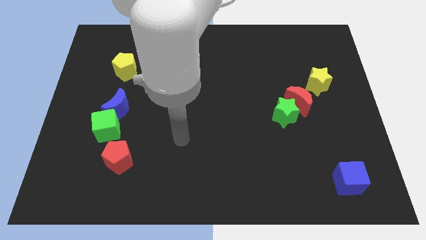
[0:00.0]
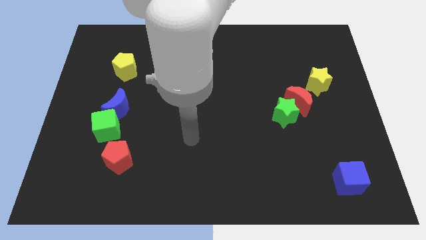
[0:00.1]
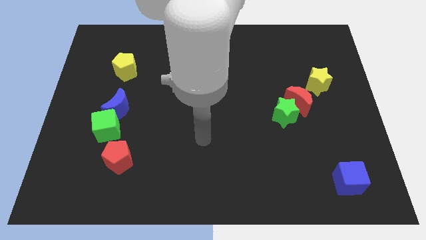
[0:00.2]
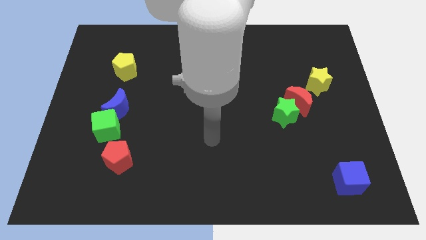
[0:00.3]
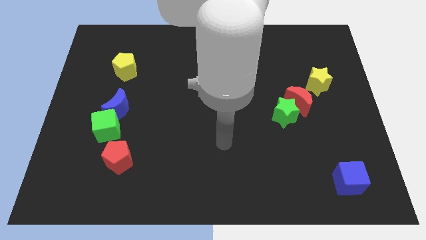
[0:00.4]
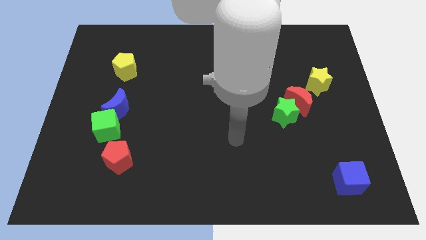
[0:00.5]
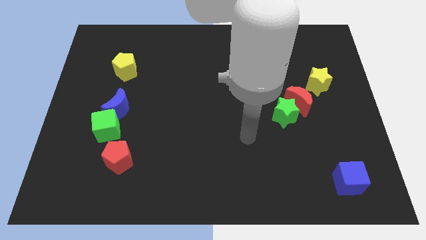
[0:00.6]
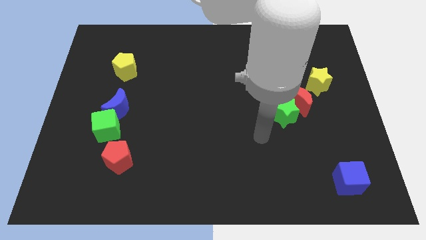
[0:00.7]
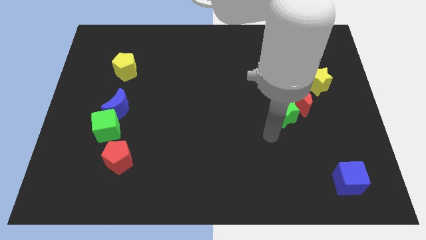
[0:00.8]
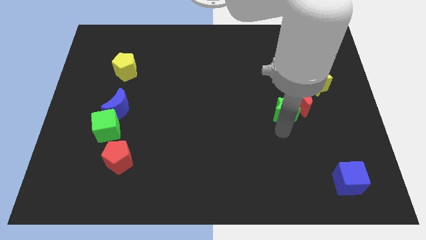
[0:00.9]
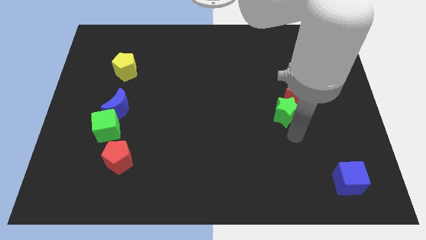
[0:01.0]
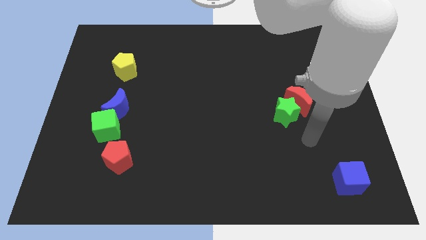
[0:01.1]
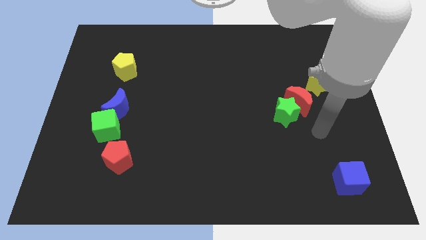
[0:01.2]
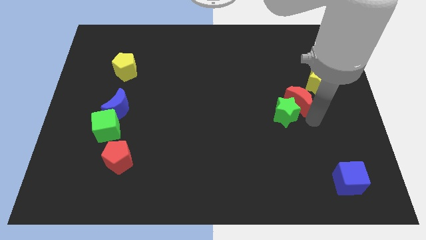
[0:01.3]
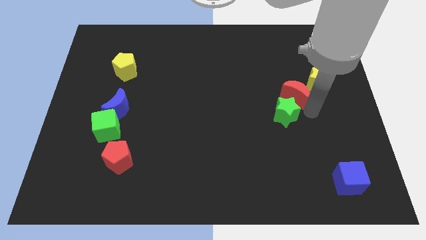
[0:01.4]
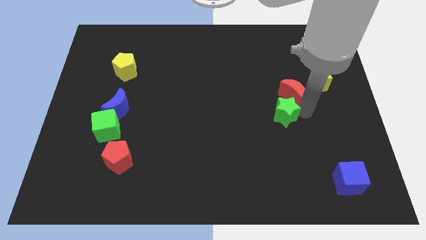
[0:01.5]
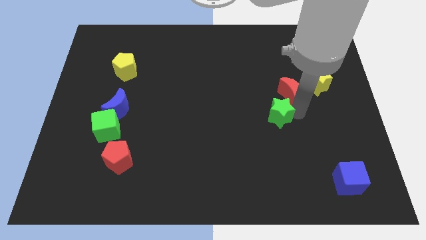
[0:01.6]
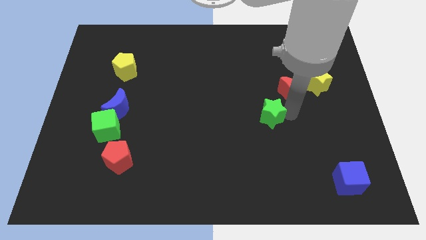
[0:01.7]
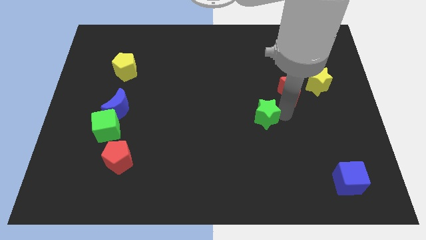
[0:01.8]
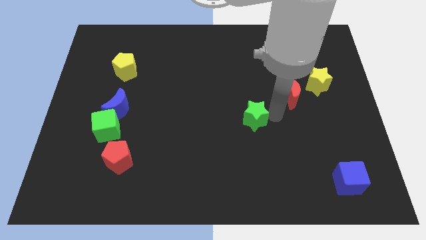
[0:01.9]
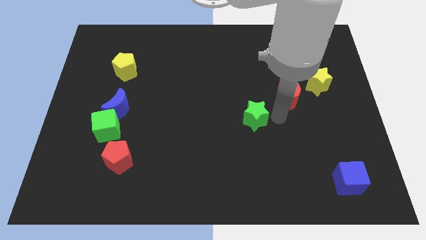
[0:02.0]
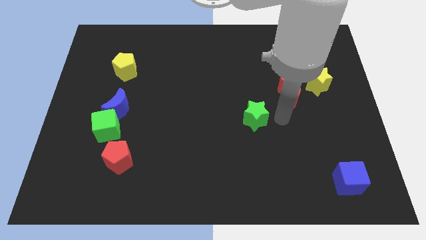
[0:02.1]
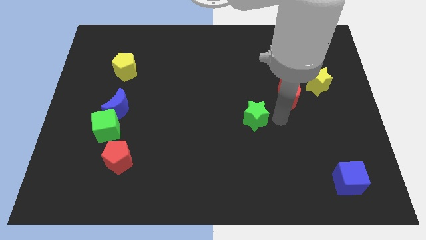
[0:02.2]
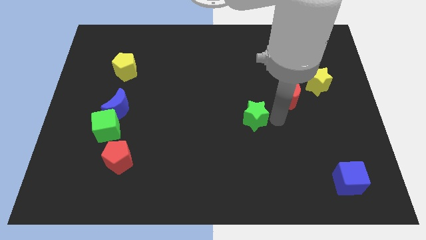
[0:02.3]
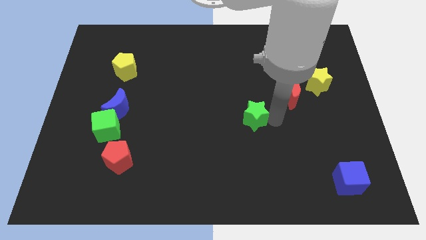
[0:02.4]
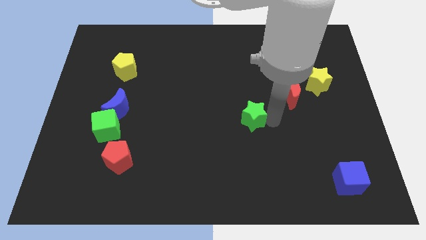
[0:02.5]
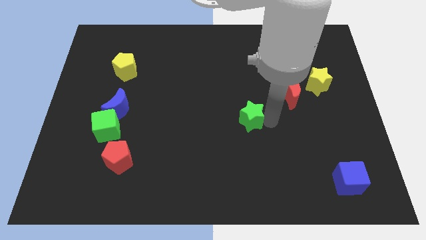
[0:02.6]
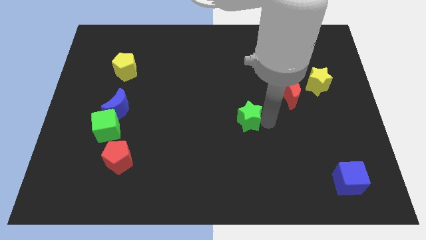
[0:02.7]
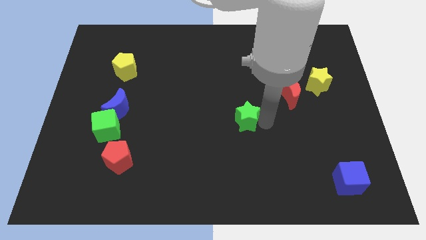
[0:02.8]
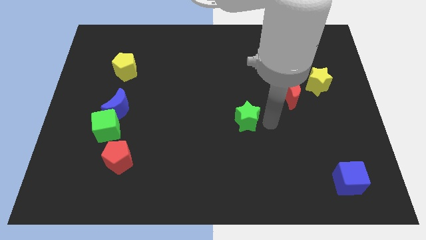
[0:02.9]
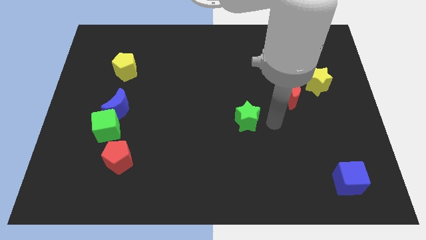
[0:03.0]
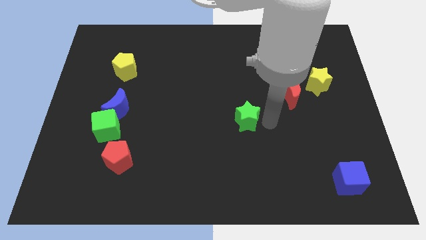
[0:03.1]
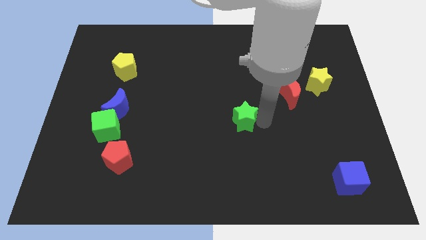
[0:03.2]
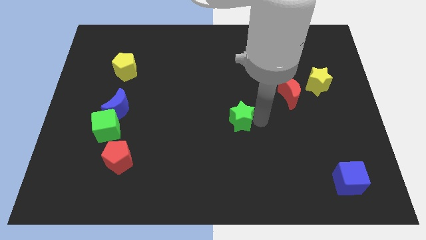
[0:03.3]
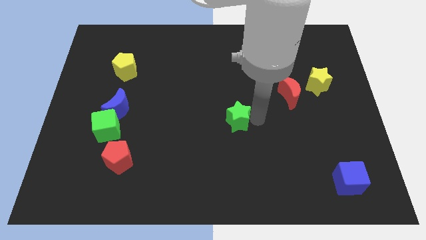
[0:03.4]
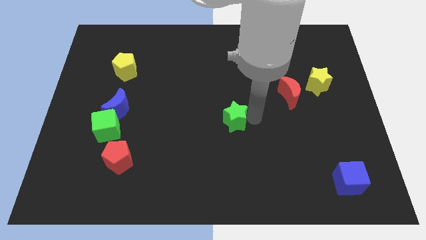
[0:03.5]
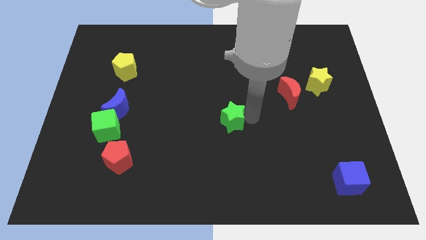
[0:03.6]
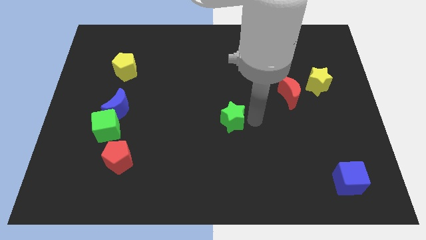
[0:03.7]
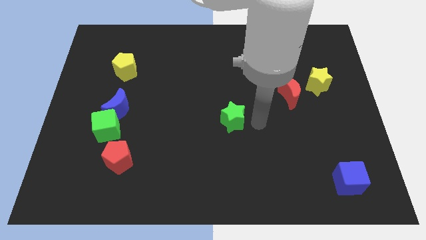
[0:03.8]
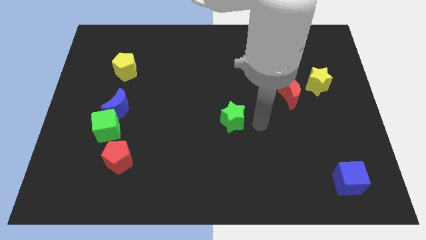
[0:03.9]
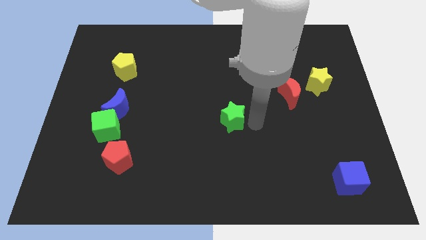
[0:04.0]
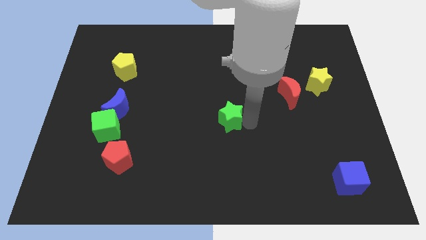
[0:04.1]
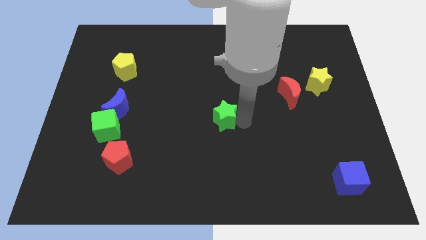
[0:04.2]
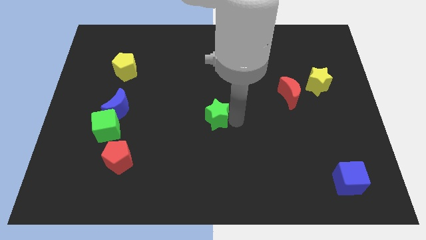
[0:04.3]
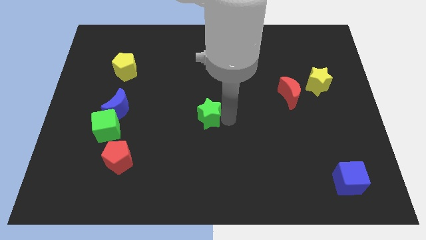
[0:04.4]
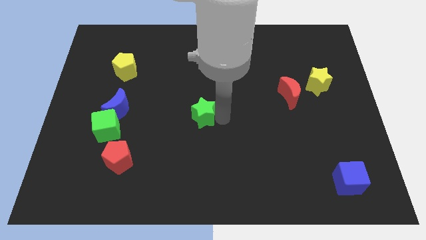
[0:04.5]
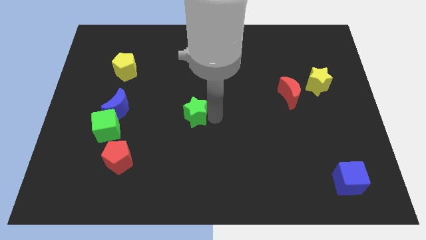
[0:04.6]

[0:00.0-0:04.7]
move the green star to the left

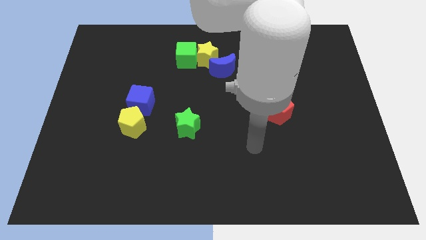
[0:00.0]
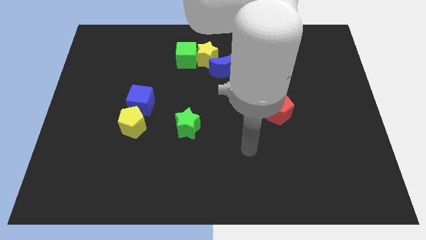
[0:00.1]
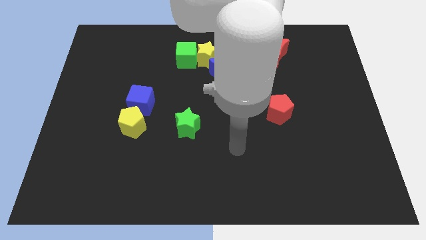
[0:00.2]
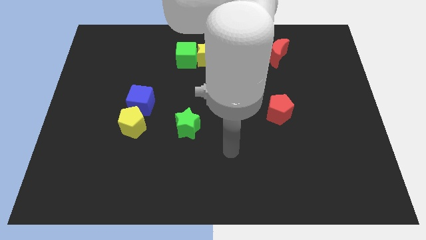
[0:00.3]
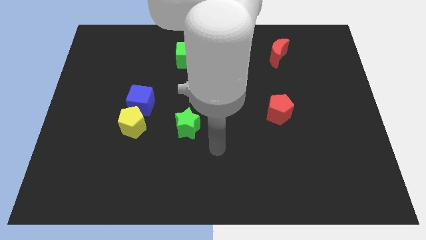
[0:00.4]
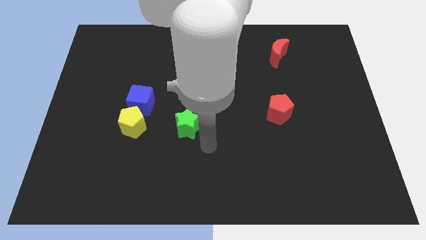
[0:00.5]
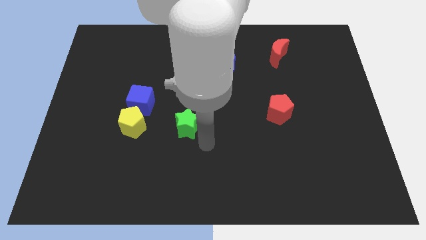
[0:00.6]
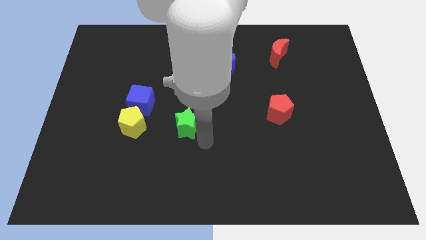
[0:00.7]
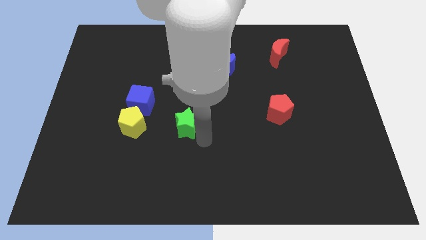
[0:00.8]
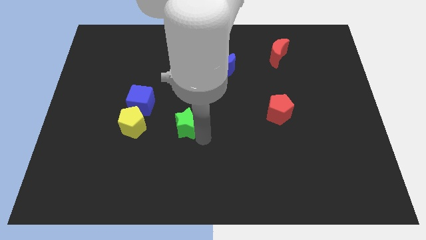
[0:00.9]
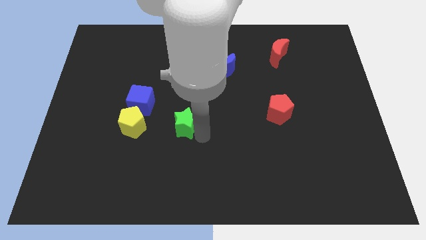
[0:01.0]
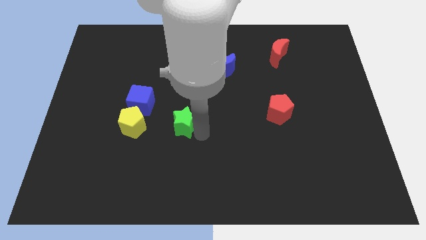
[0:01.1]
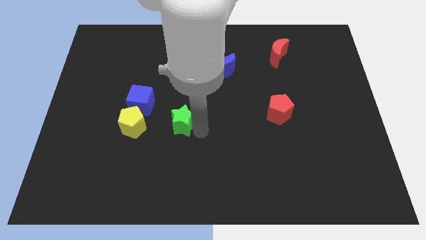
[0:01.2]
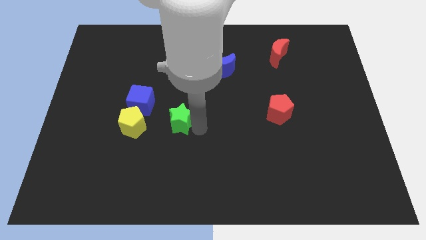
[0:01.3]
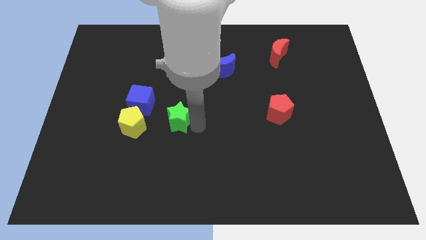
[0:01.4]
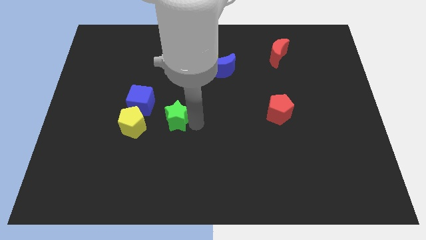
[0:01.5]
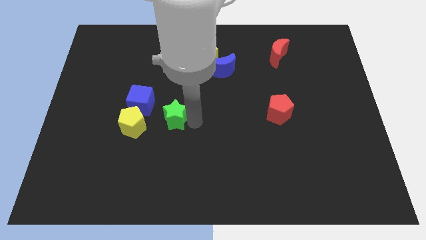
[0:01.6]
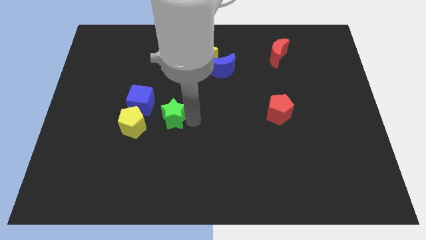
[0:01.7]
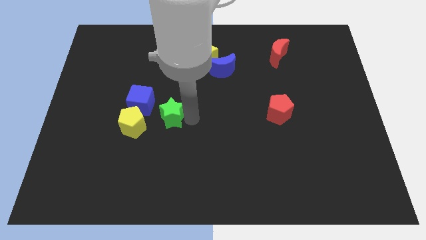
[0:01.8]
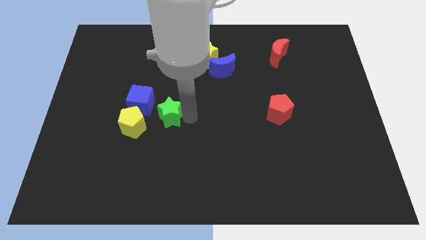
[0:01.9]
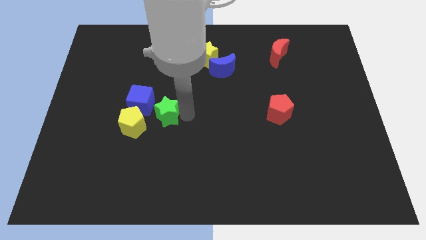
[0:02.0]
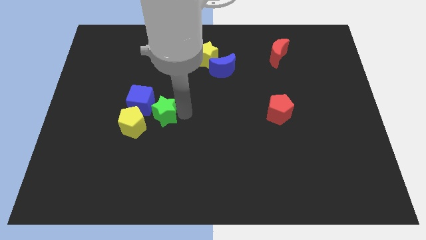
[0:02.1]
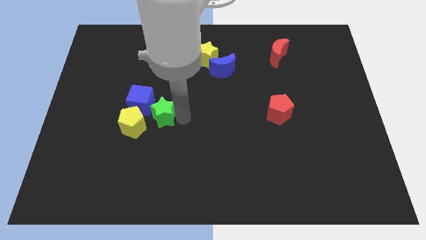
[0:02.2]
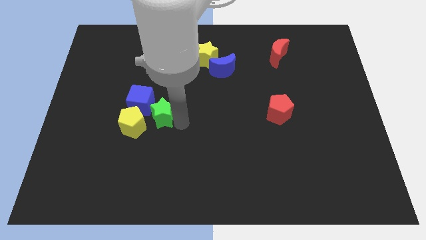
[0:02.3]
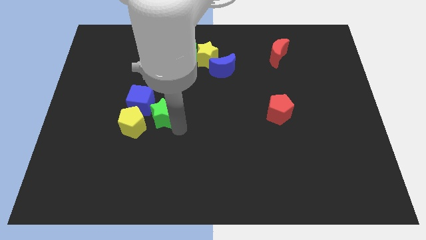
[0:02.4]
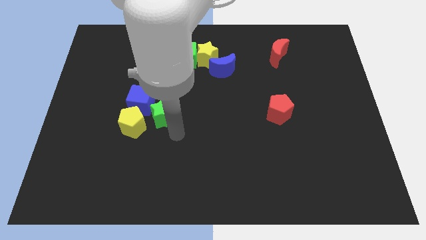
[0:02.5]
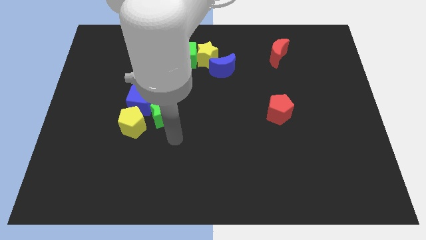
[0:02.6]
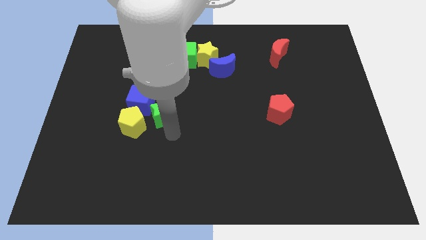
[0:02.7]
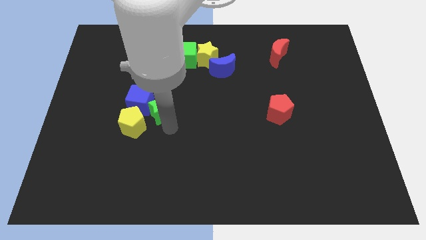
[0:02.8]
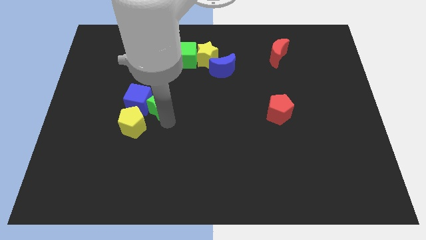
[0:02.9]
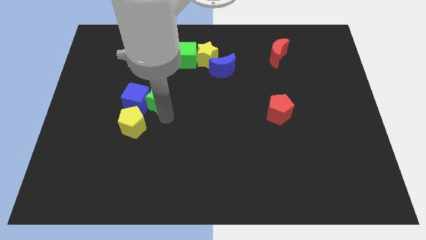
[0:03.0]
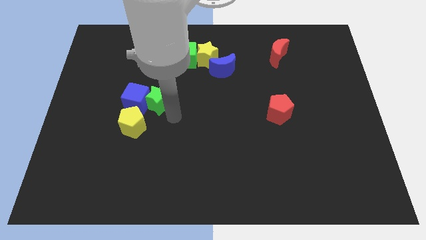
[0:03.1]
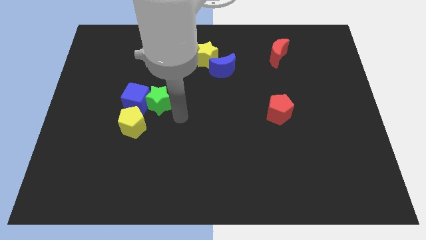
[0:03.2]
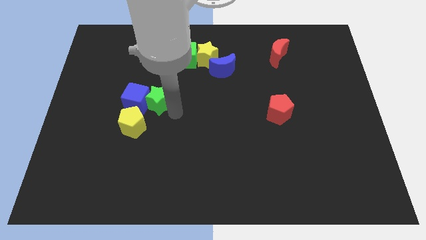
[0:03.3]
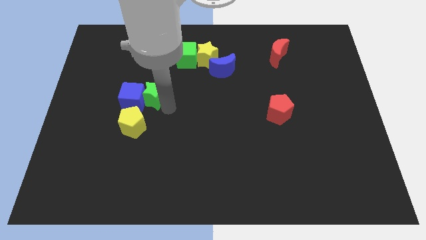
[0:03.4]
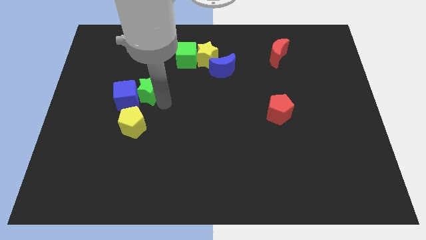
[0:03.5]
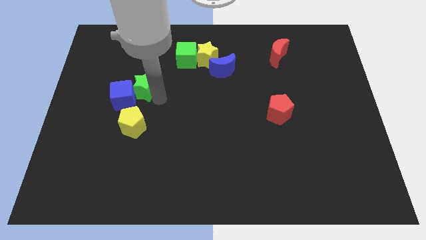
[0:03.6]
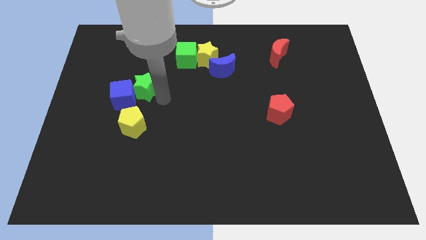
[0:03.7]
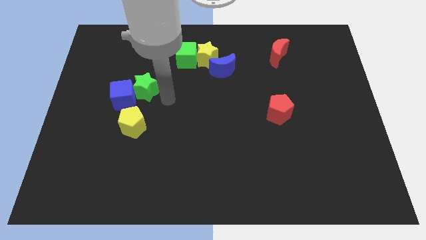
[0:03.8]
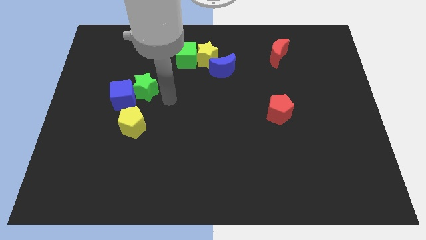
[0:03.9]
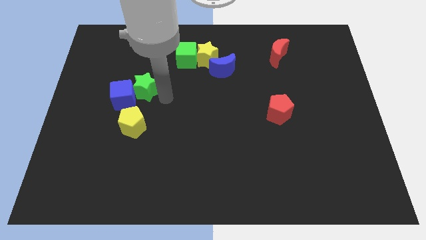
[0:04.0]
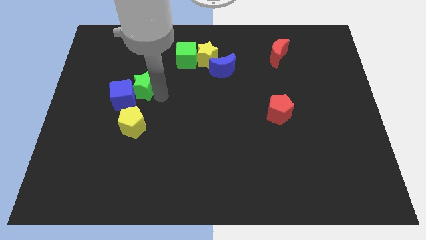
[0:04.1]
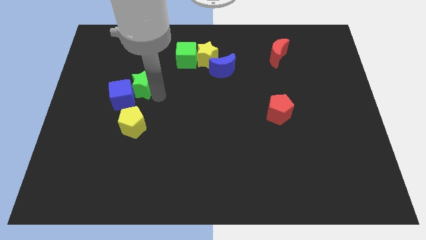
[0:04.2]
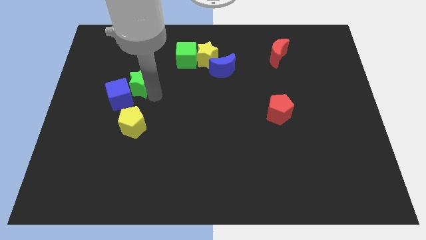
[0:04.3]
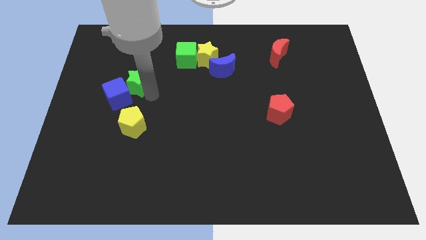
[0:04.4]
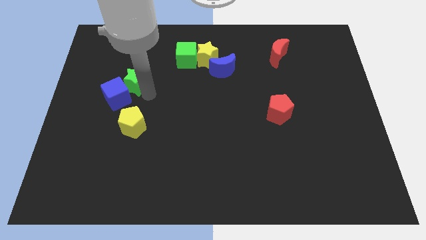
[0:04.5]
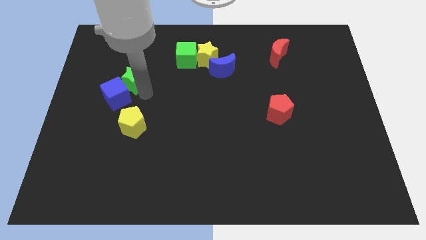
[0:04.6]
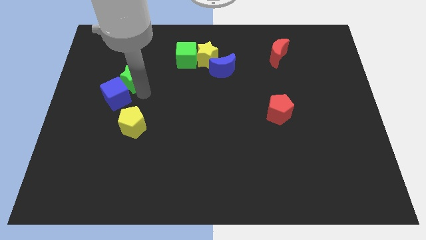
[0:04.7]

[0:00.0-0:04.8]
slide the green star diagonally up and to the left
